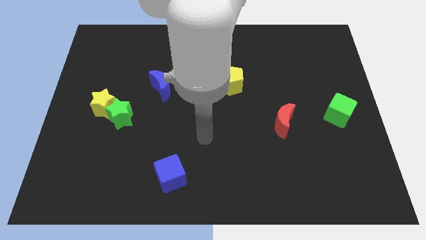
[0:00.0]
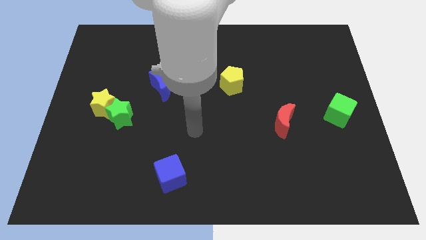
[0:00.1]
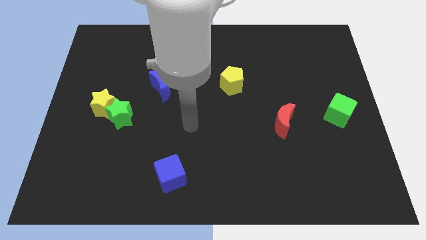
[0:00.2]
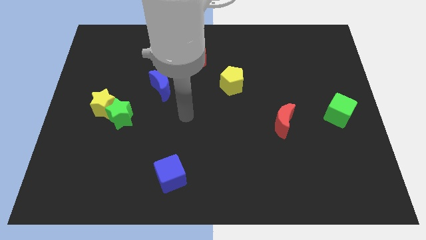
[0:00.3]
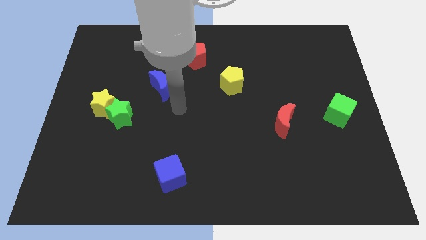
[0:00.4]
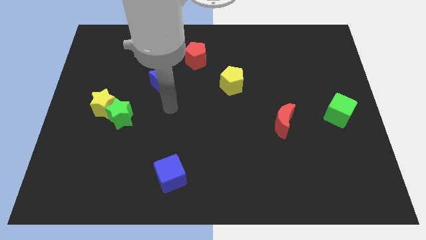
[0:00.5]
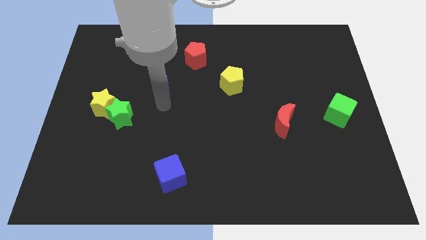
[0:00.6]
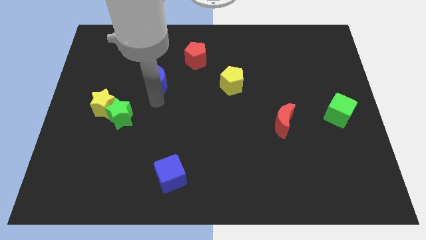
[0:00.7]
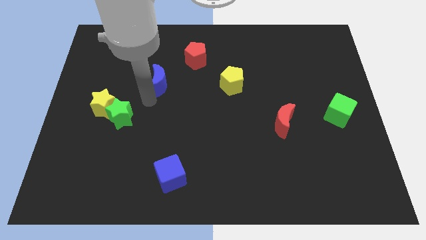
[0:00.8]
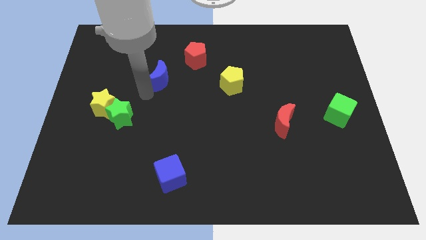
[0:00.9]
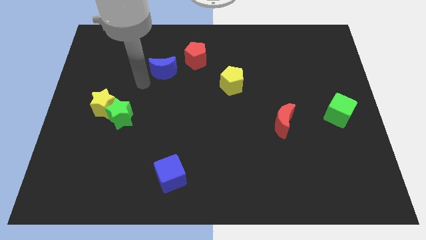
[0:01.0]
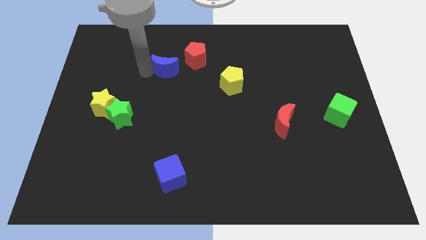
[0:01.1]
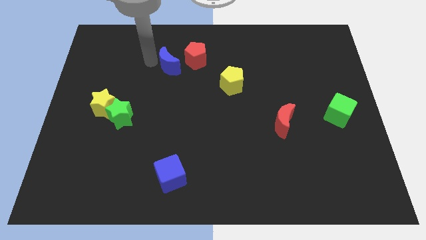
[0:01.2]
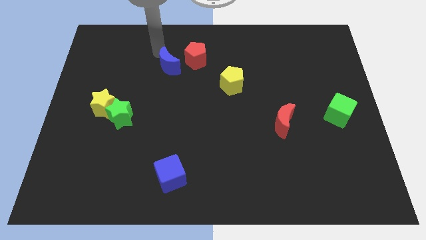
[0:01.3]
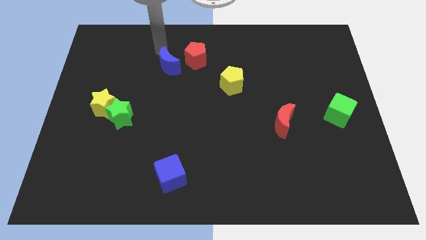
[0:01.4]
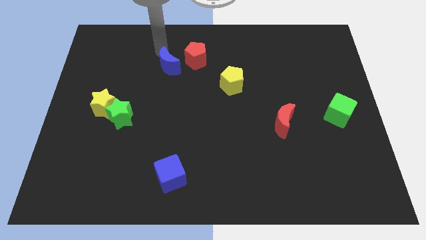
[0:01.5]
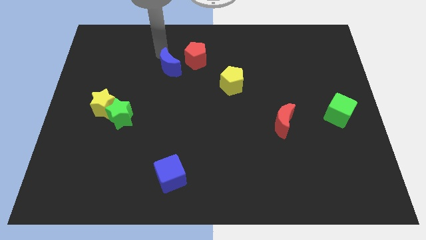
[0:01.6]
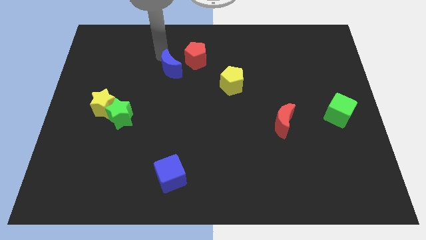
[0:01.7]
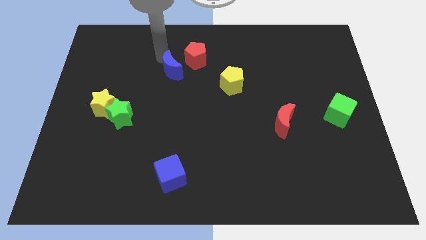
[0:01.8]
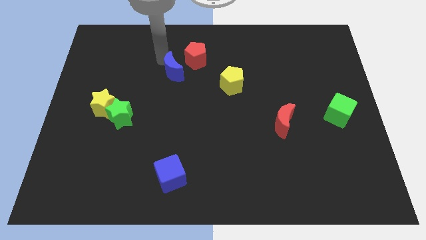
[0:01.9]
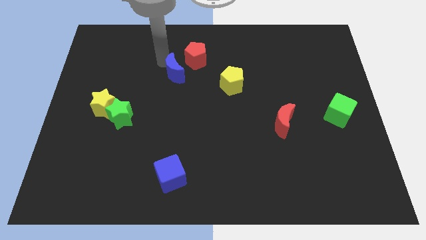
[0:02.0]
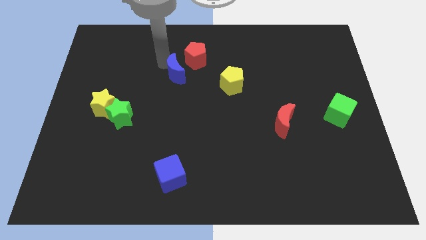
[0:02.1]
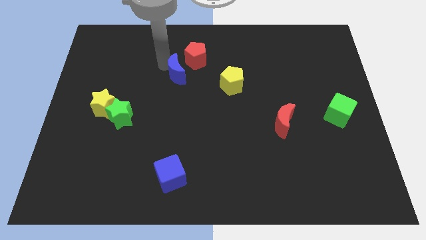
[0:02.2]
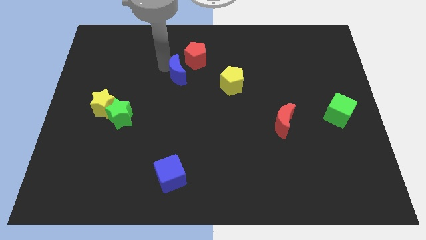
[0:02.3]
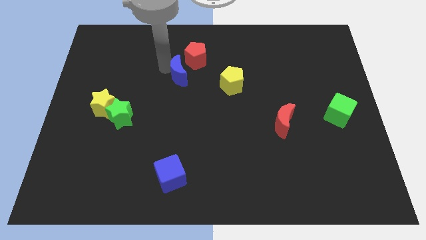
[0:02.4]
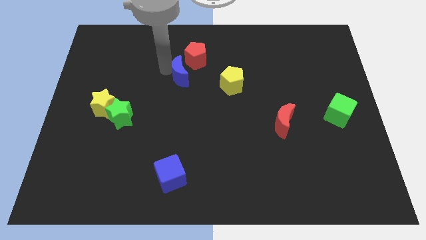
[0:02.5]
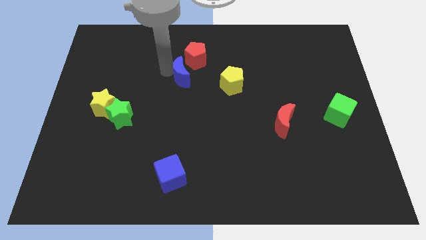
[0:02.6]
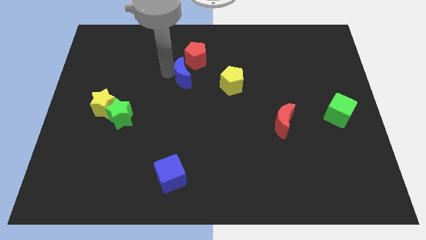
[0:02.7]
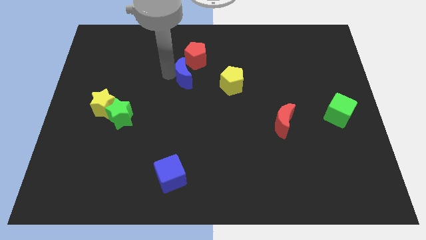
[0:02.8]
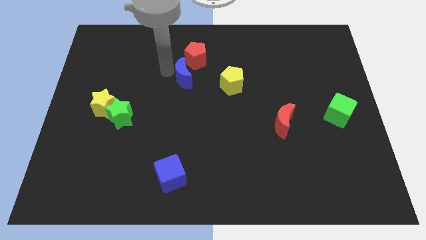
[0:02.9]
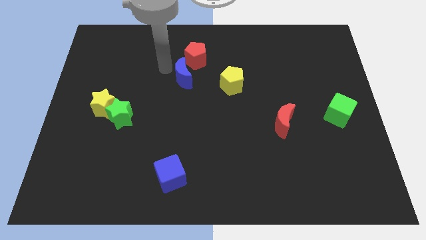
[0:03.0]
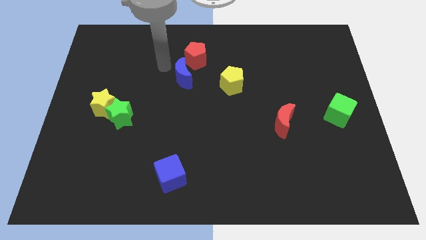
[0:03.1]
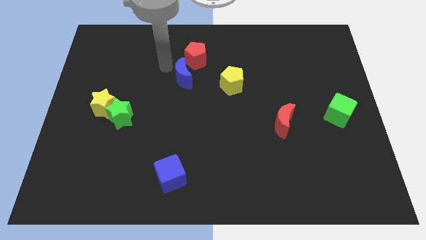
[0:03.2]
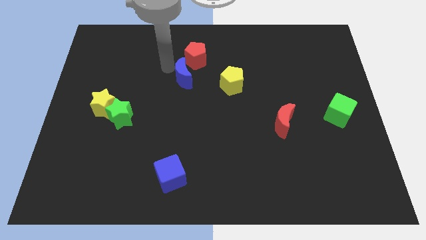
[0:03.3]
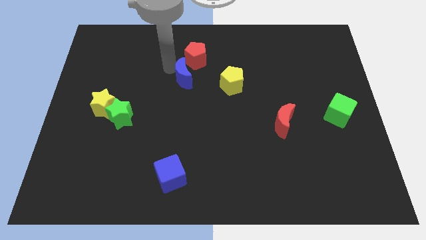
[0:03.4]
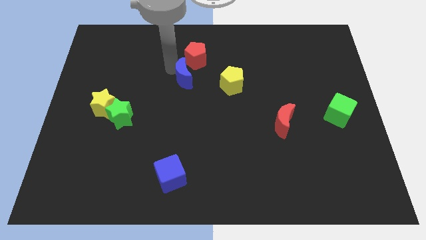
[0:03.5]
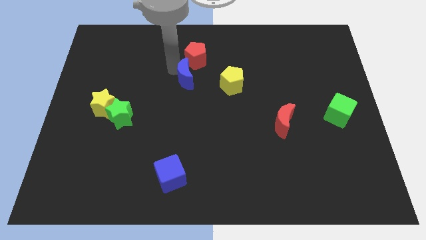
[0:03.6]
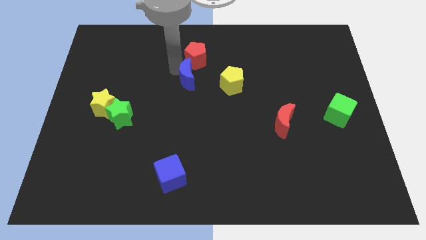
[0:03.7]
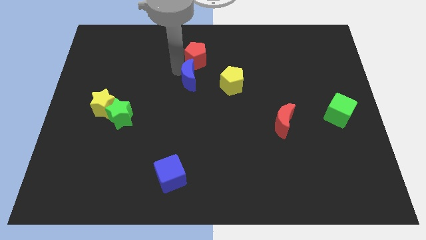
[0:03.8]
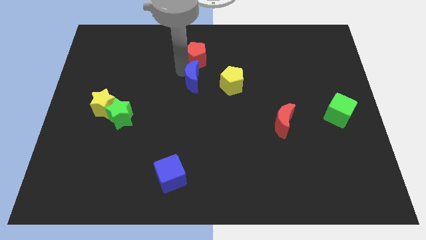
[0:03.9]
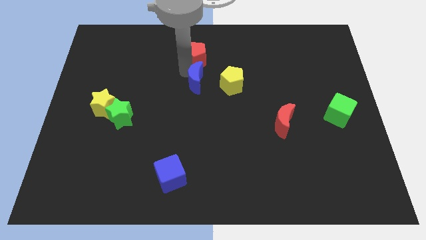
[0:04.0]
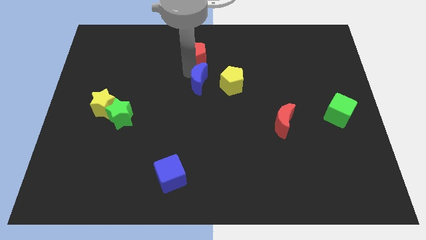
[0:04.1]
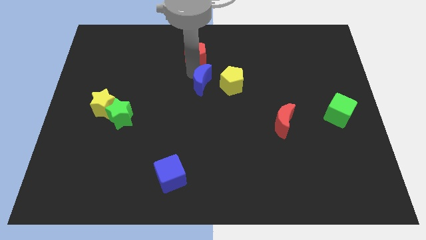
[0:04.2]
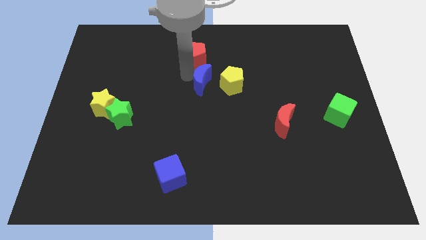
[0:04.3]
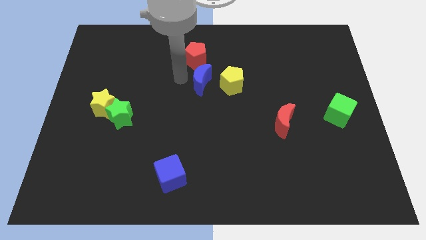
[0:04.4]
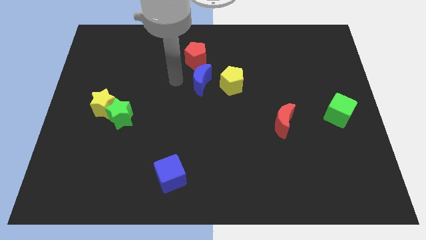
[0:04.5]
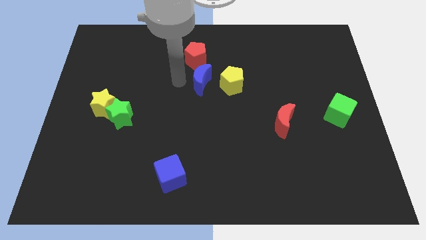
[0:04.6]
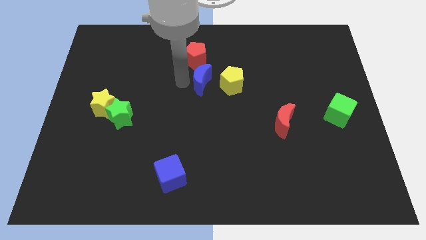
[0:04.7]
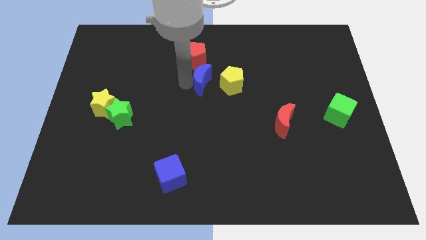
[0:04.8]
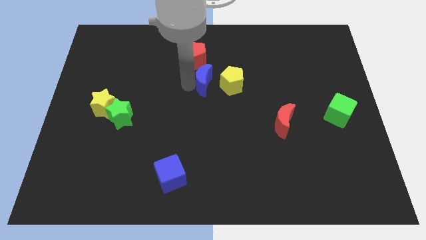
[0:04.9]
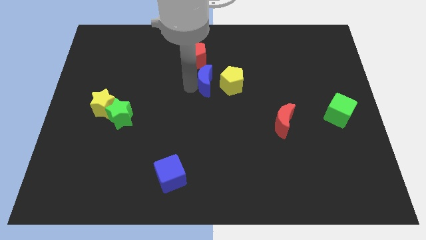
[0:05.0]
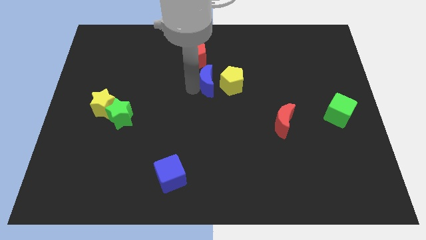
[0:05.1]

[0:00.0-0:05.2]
push the blue moon towards the yellow pentagon

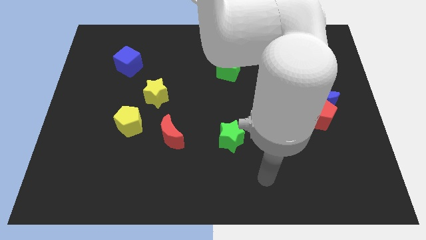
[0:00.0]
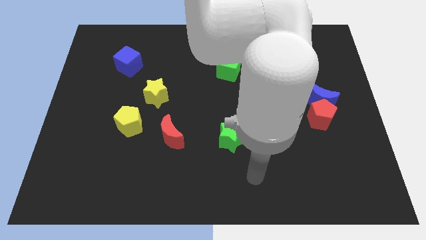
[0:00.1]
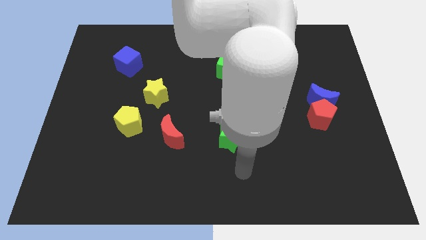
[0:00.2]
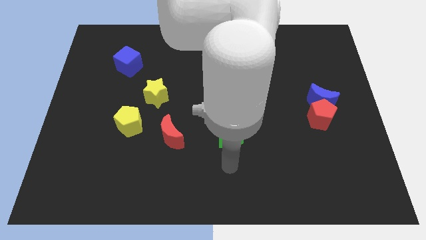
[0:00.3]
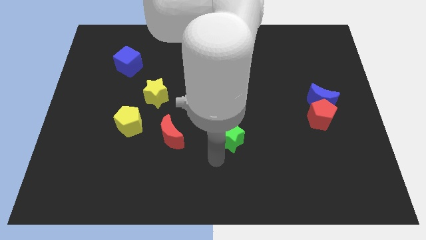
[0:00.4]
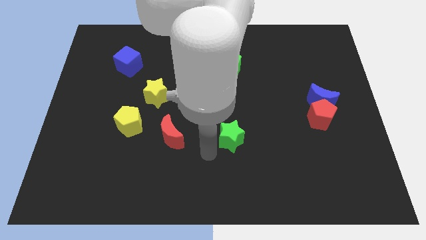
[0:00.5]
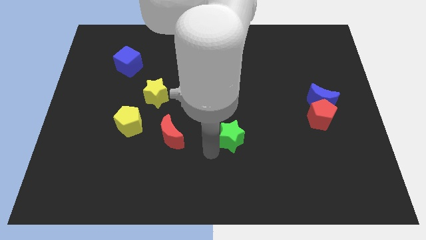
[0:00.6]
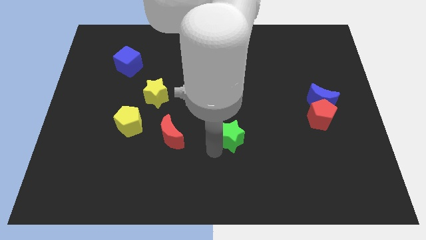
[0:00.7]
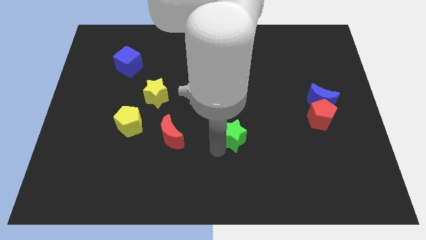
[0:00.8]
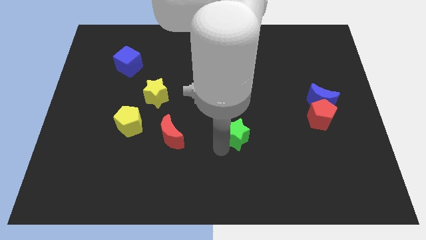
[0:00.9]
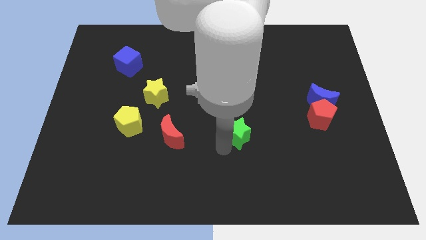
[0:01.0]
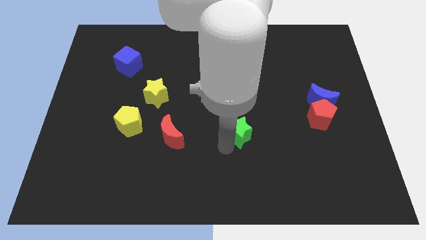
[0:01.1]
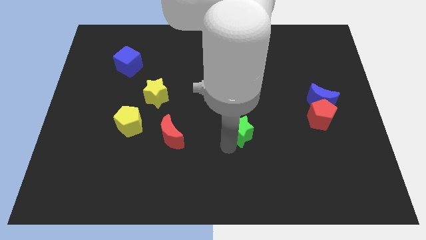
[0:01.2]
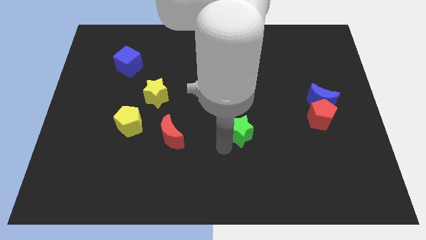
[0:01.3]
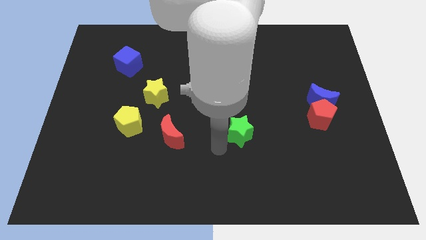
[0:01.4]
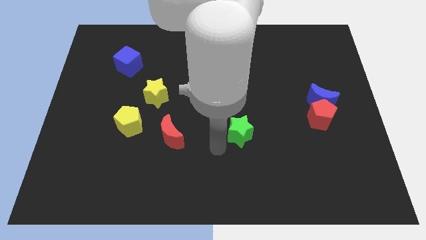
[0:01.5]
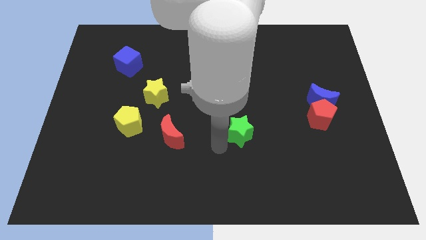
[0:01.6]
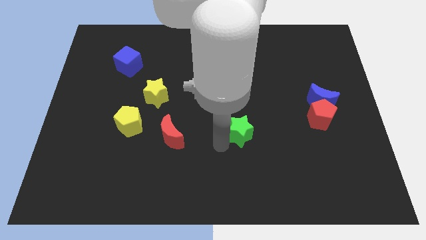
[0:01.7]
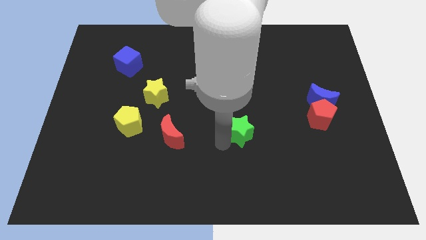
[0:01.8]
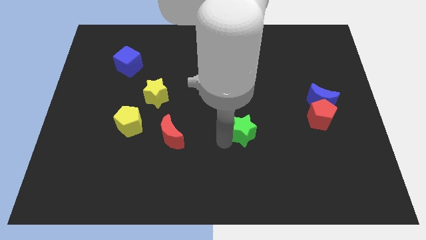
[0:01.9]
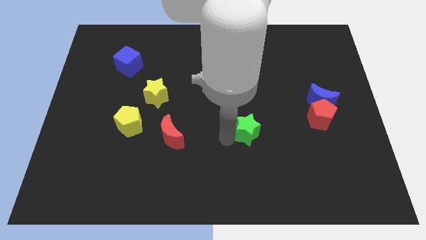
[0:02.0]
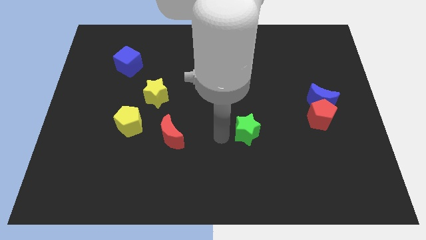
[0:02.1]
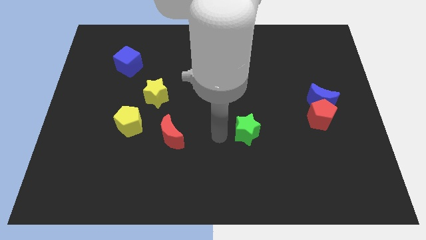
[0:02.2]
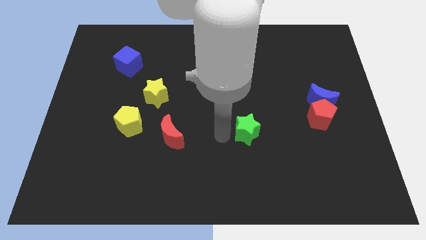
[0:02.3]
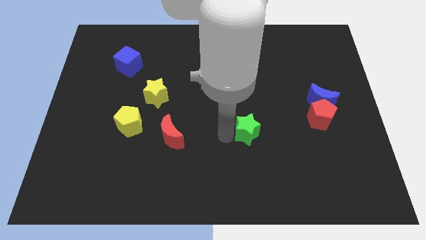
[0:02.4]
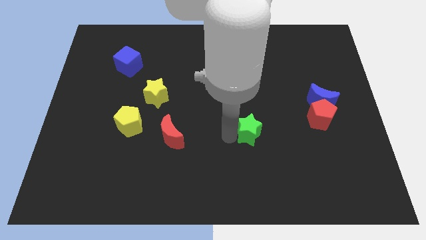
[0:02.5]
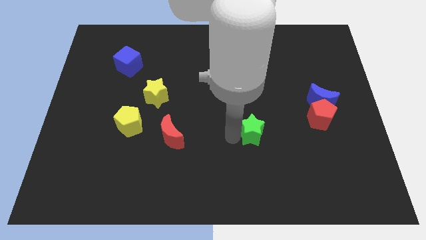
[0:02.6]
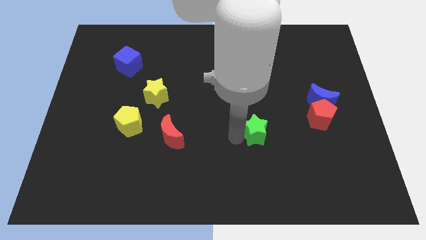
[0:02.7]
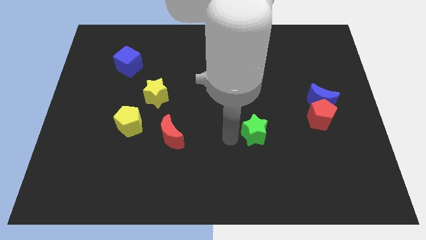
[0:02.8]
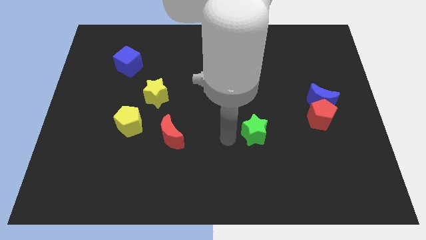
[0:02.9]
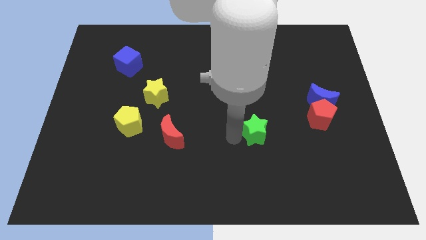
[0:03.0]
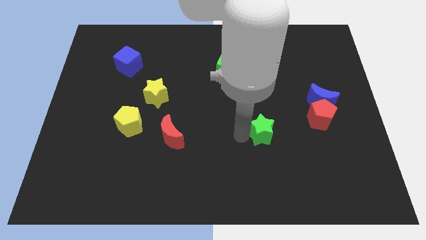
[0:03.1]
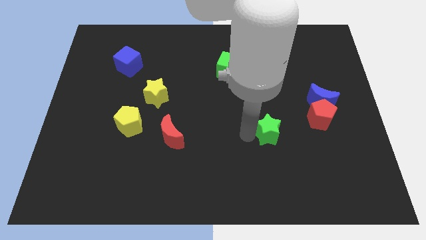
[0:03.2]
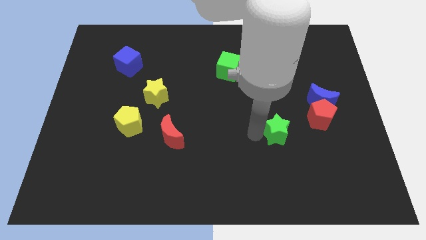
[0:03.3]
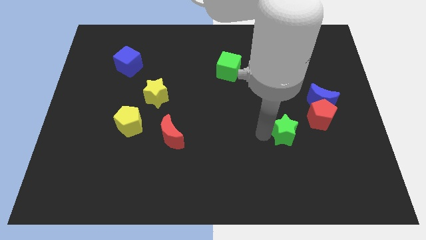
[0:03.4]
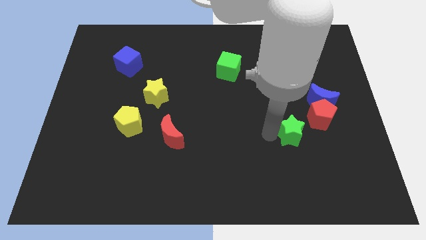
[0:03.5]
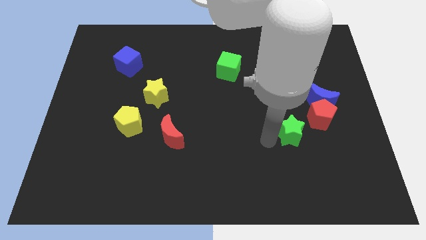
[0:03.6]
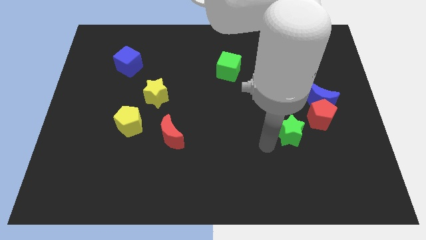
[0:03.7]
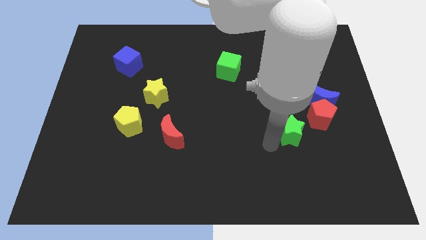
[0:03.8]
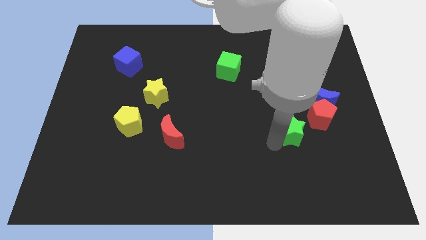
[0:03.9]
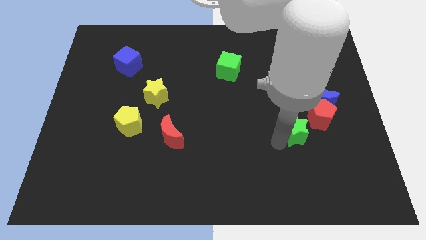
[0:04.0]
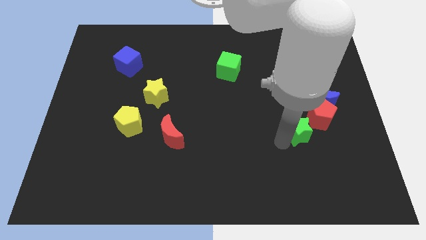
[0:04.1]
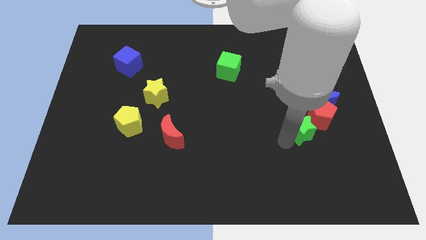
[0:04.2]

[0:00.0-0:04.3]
put the green star next to the red pentagon
